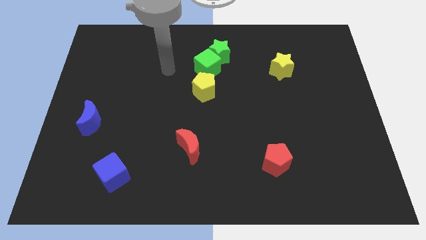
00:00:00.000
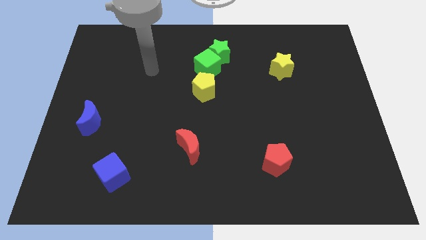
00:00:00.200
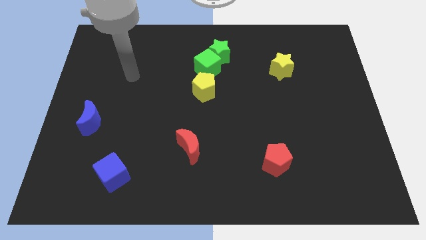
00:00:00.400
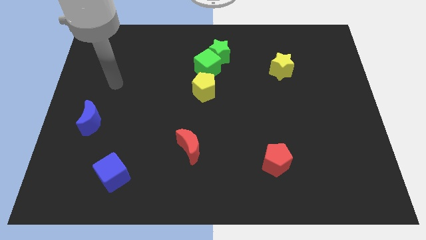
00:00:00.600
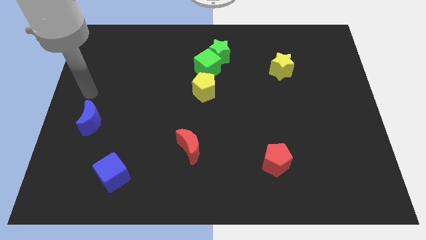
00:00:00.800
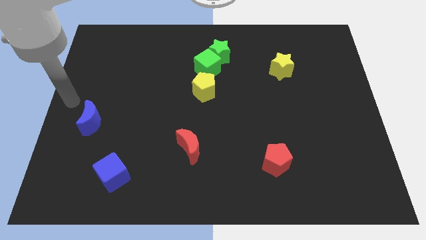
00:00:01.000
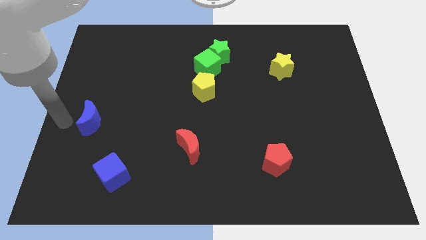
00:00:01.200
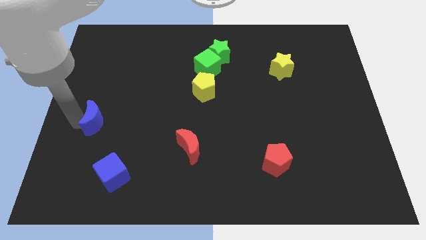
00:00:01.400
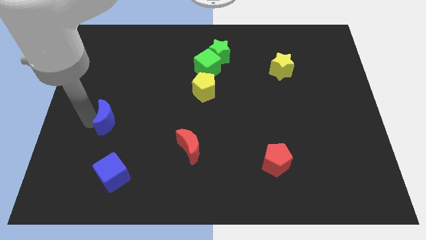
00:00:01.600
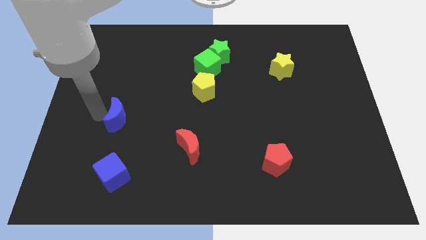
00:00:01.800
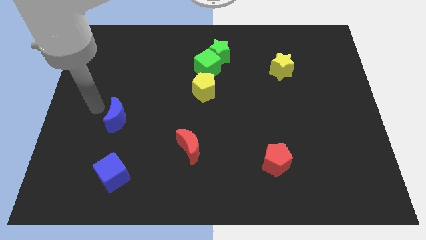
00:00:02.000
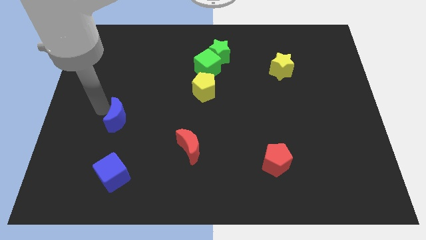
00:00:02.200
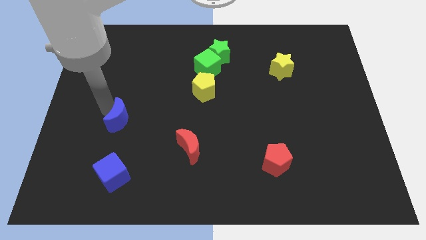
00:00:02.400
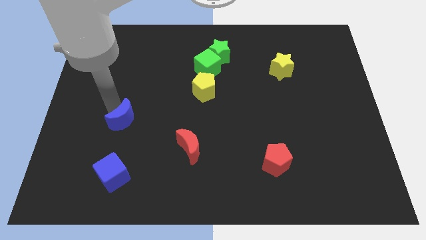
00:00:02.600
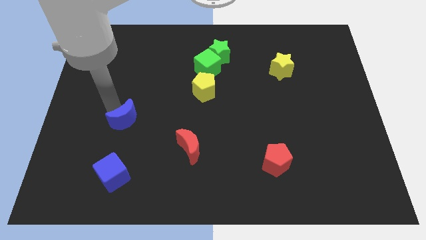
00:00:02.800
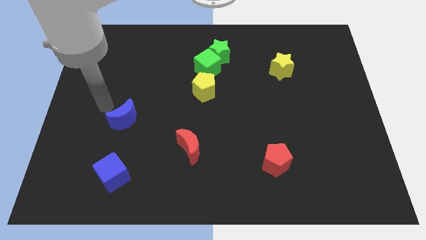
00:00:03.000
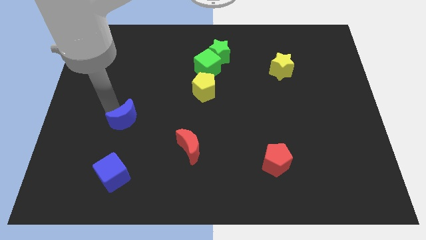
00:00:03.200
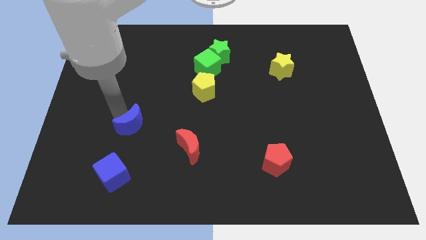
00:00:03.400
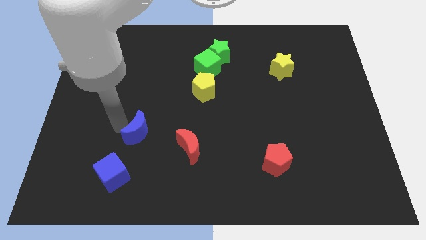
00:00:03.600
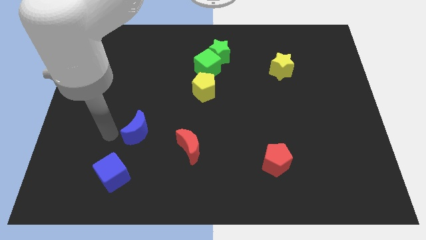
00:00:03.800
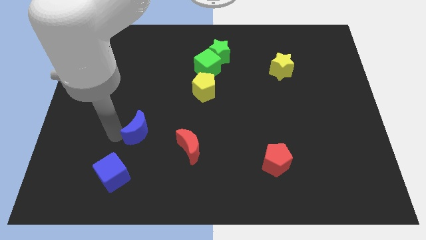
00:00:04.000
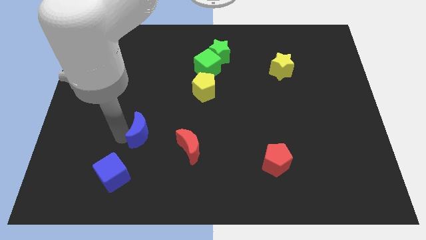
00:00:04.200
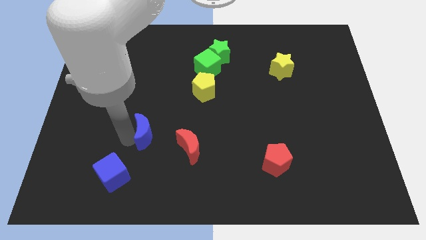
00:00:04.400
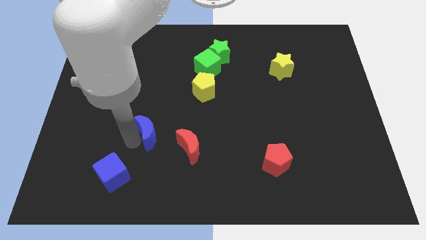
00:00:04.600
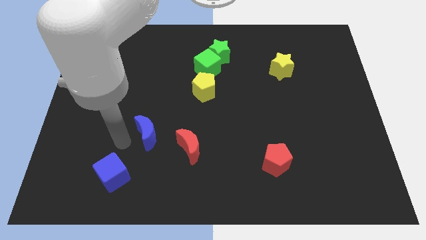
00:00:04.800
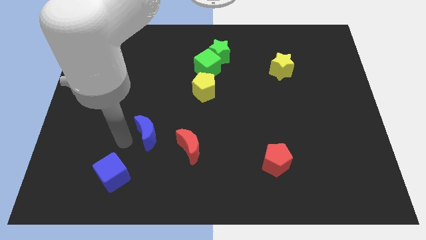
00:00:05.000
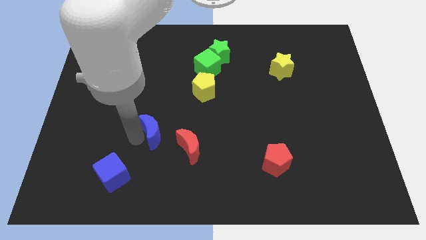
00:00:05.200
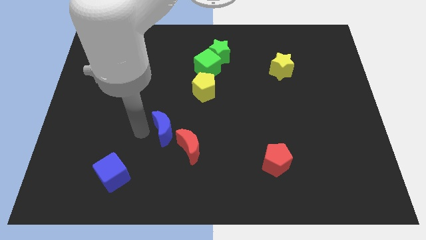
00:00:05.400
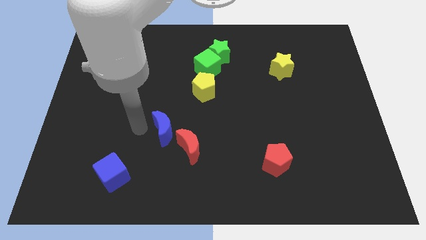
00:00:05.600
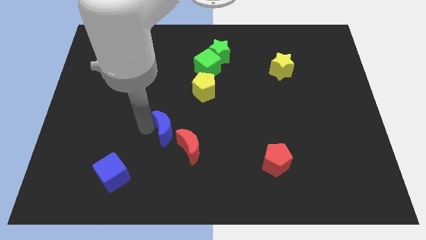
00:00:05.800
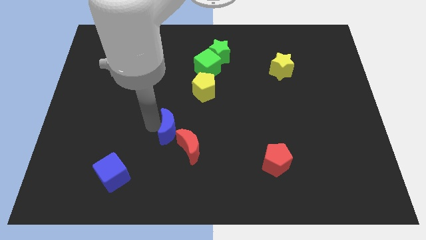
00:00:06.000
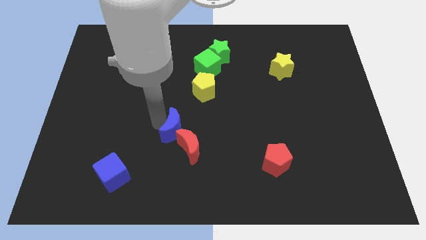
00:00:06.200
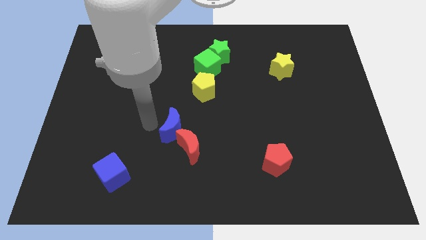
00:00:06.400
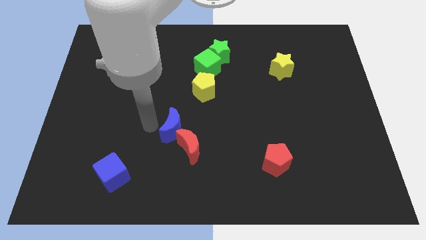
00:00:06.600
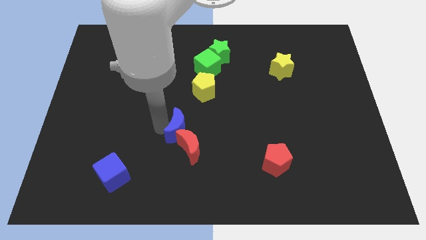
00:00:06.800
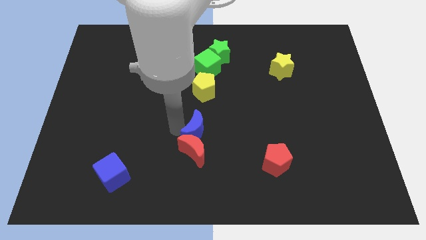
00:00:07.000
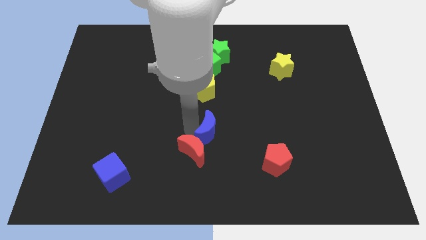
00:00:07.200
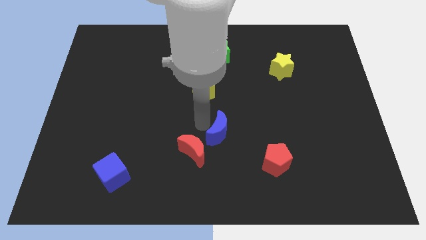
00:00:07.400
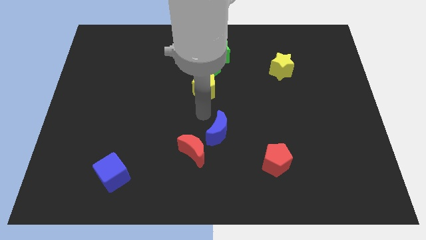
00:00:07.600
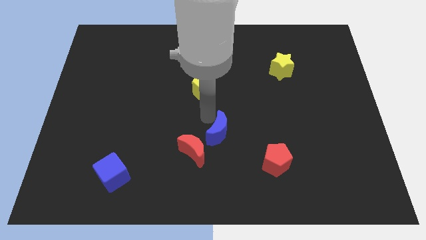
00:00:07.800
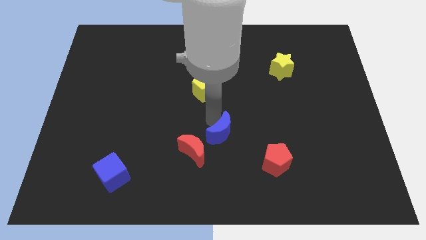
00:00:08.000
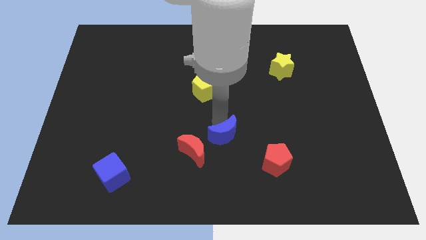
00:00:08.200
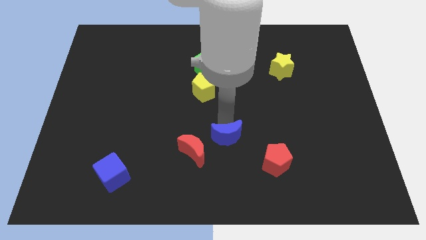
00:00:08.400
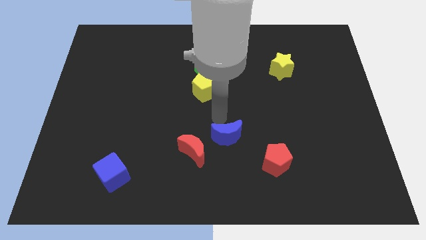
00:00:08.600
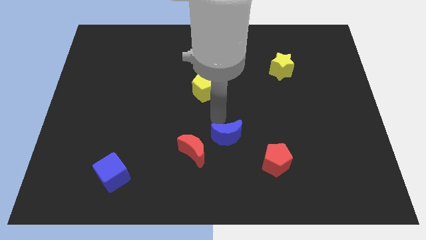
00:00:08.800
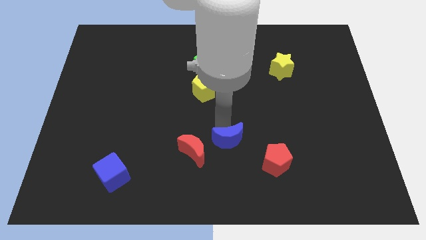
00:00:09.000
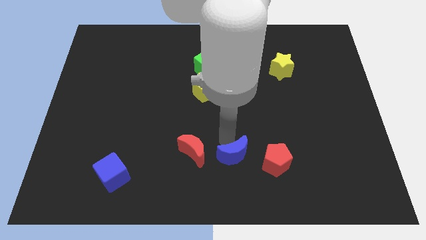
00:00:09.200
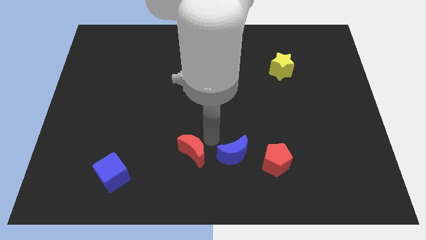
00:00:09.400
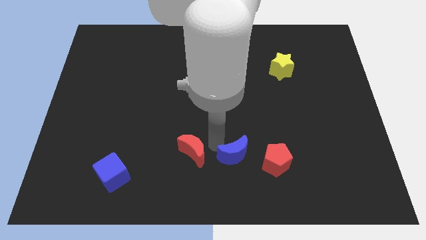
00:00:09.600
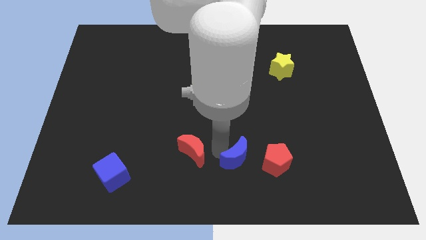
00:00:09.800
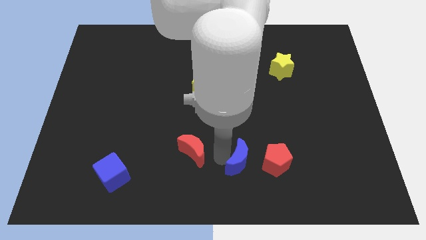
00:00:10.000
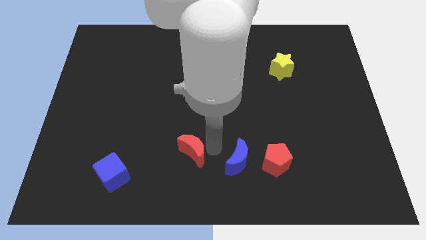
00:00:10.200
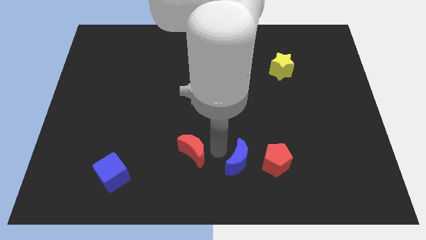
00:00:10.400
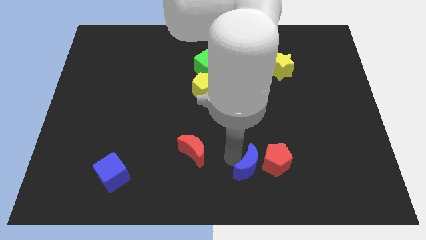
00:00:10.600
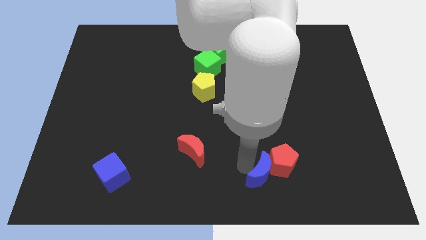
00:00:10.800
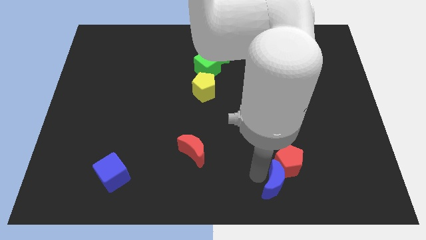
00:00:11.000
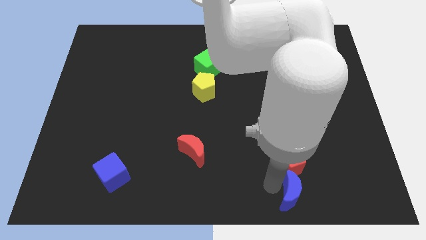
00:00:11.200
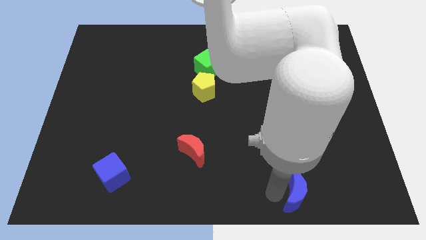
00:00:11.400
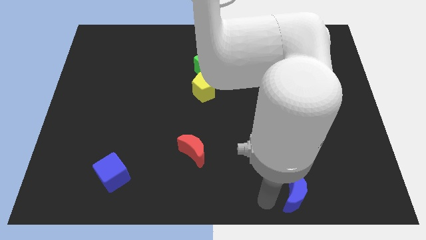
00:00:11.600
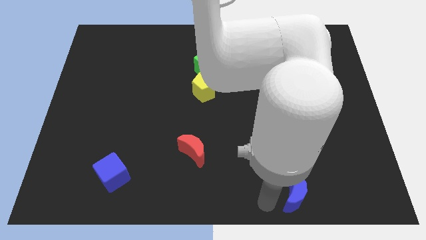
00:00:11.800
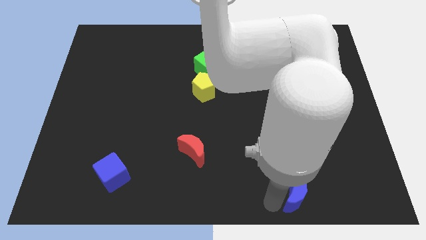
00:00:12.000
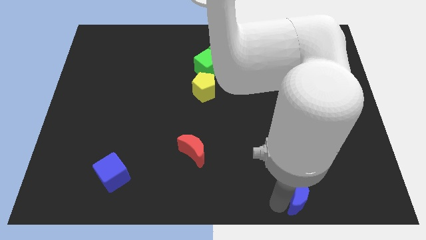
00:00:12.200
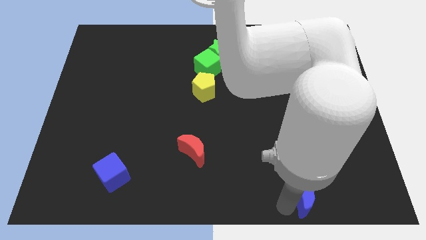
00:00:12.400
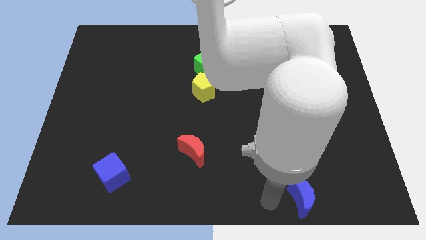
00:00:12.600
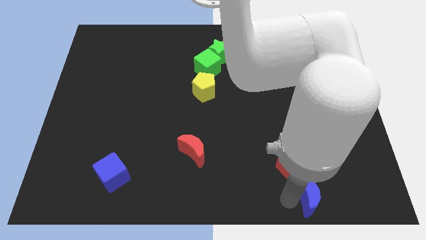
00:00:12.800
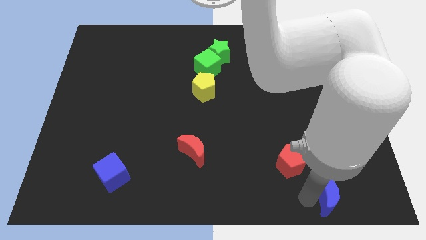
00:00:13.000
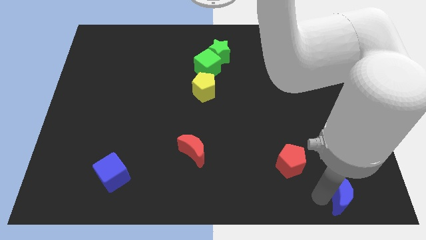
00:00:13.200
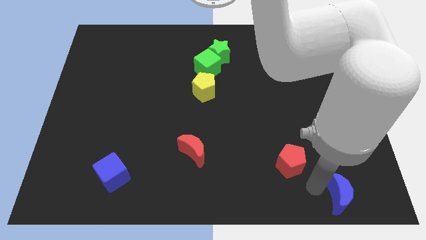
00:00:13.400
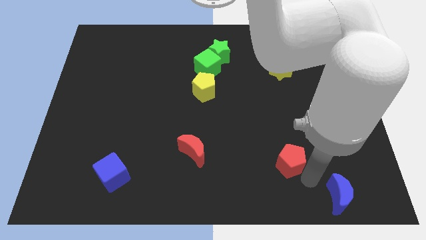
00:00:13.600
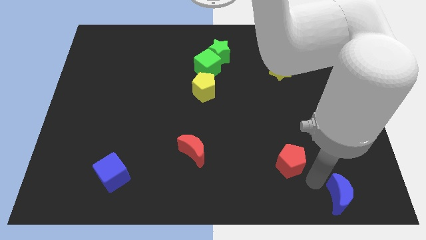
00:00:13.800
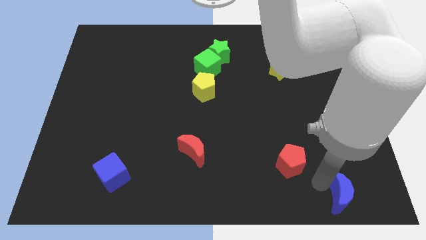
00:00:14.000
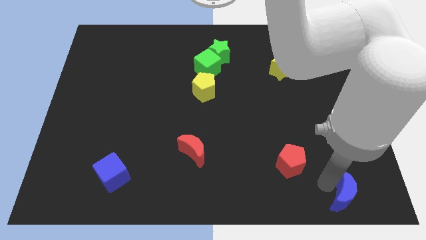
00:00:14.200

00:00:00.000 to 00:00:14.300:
move the blue moon to the bottom right
